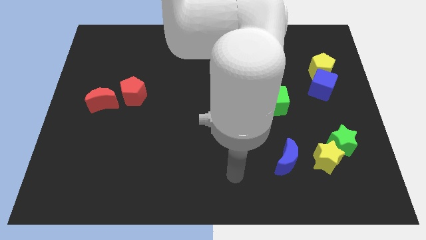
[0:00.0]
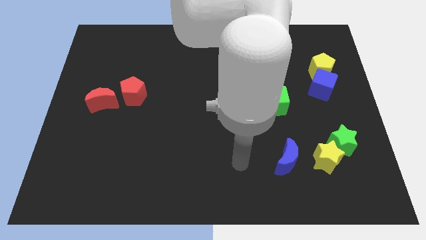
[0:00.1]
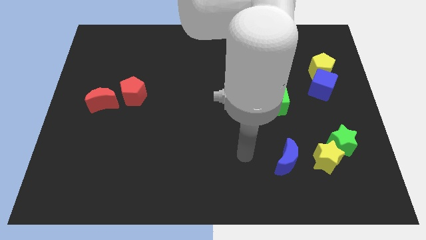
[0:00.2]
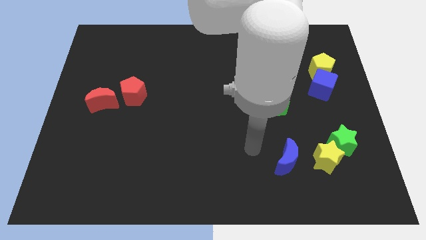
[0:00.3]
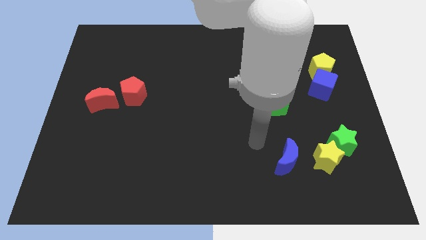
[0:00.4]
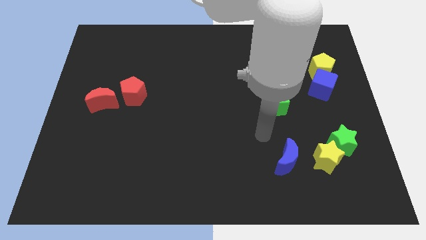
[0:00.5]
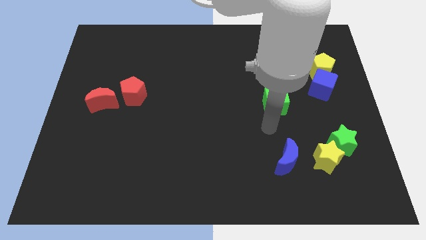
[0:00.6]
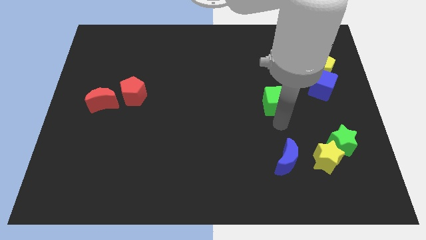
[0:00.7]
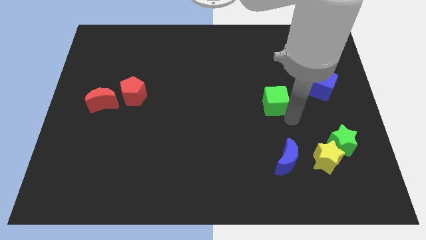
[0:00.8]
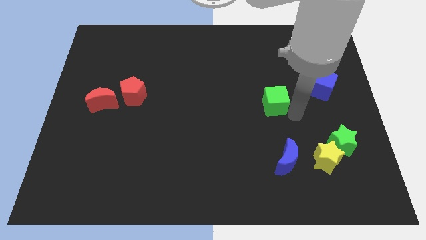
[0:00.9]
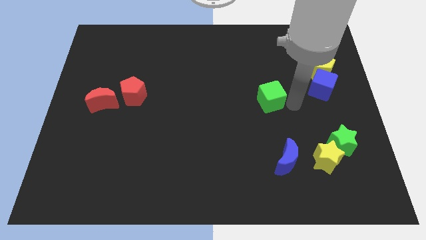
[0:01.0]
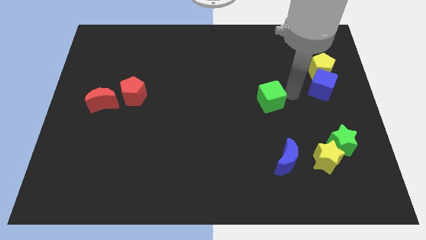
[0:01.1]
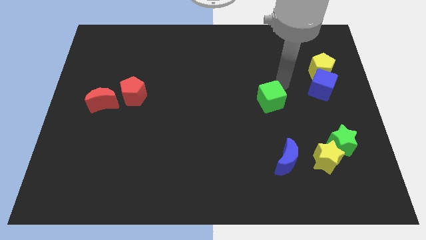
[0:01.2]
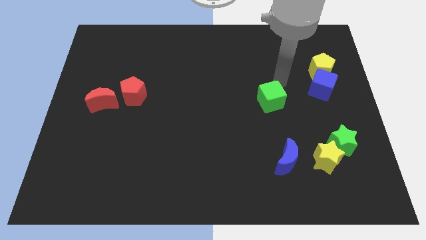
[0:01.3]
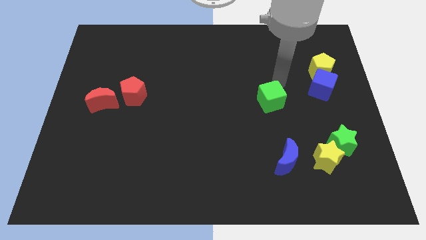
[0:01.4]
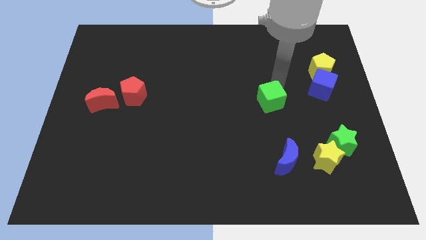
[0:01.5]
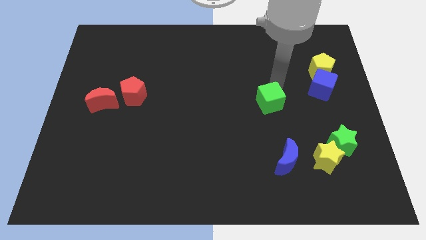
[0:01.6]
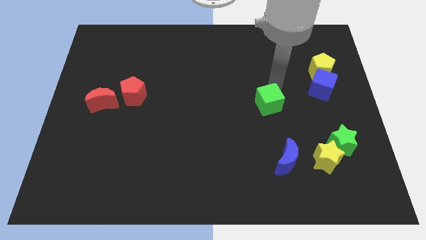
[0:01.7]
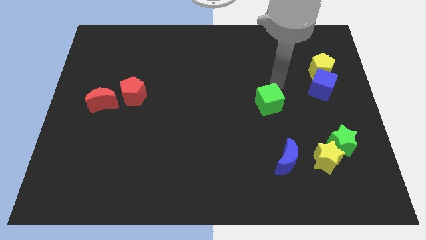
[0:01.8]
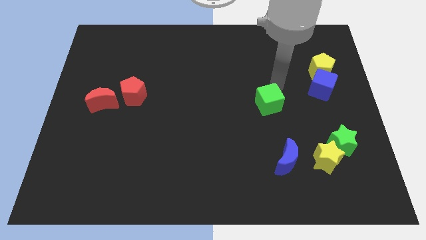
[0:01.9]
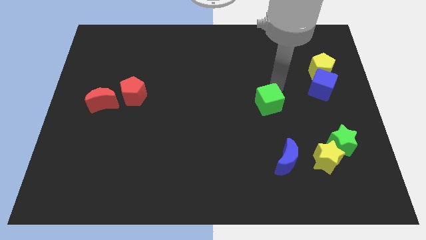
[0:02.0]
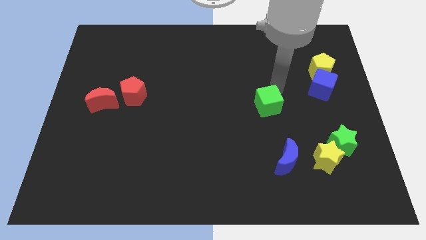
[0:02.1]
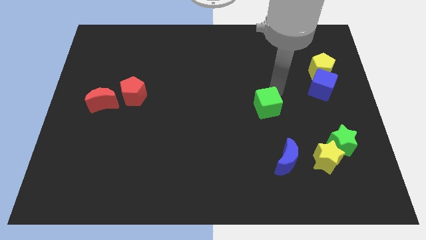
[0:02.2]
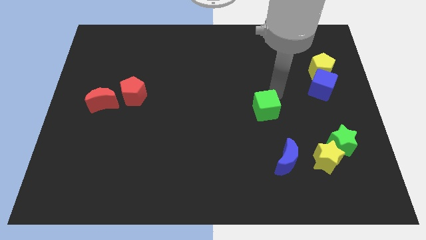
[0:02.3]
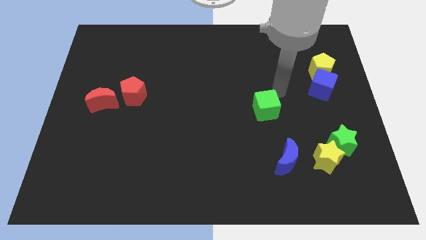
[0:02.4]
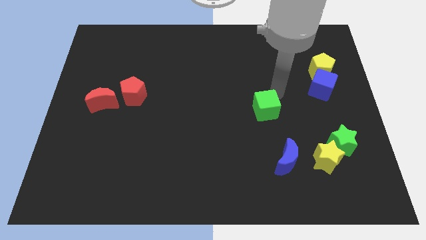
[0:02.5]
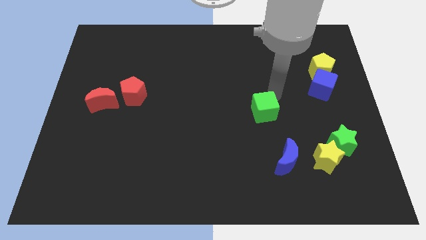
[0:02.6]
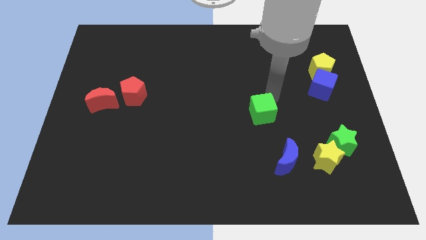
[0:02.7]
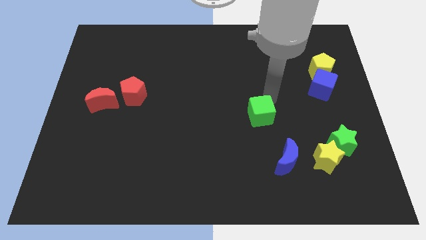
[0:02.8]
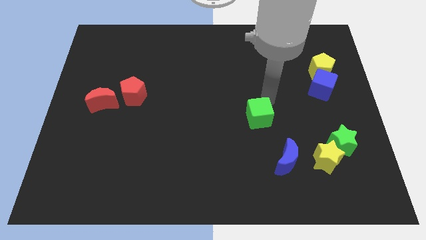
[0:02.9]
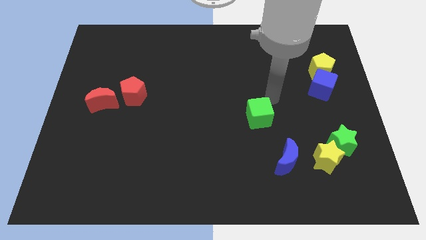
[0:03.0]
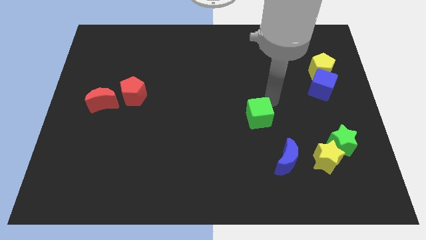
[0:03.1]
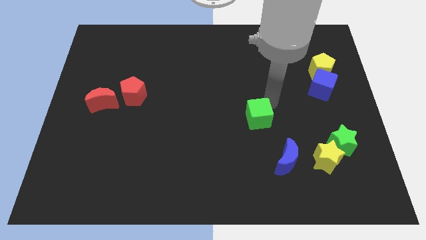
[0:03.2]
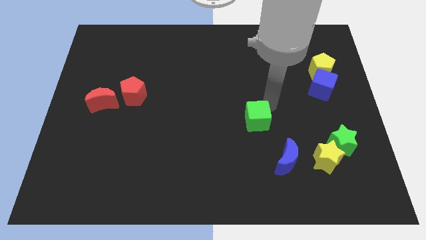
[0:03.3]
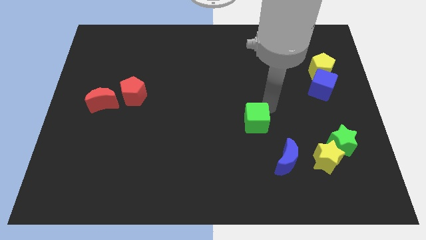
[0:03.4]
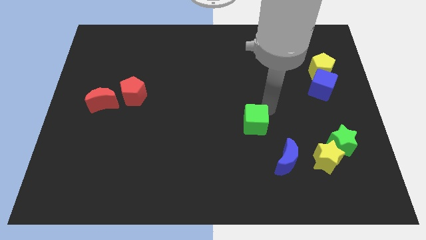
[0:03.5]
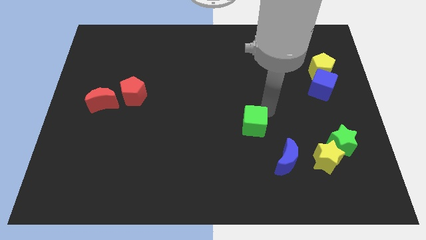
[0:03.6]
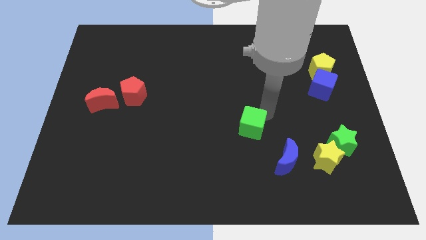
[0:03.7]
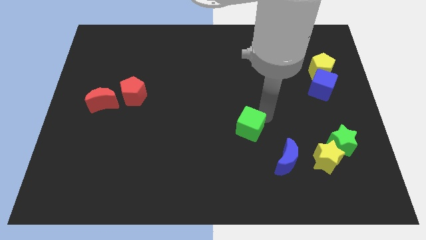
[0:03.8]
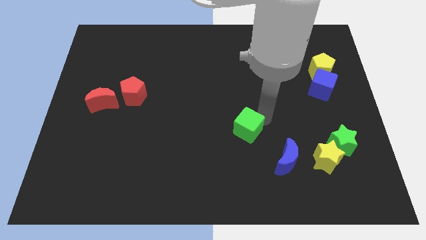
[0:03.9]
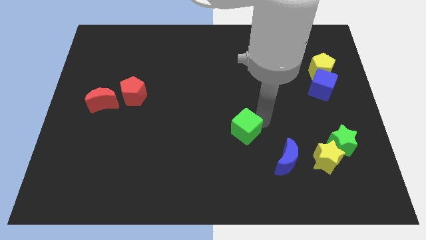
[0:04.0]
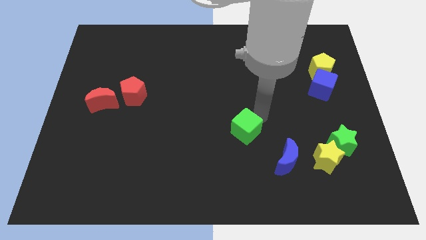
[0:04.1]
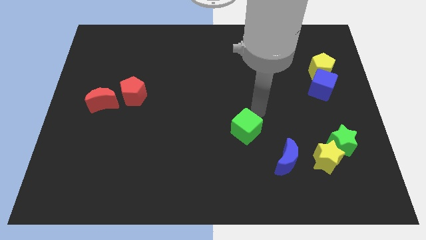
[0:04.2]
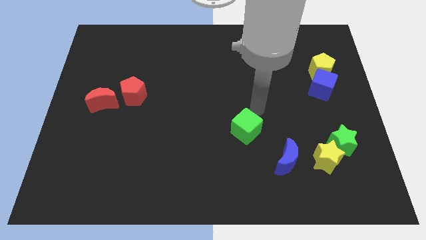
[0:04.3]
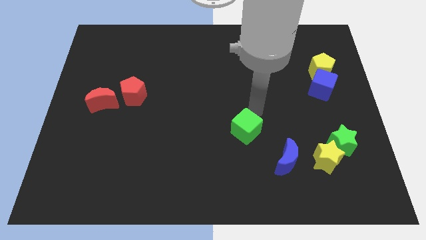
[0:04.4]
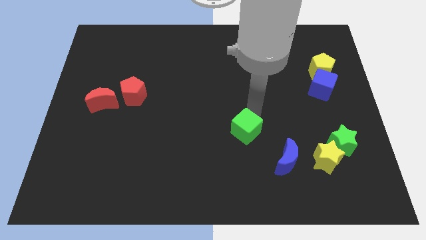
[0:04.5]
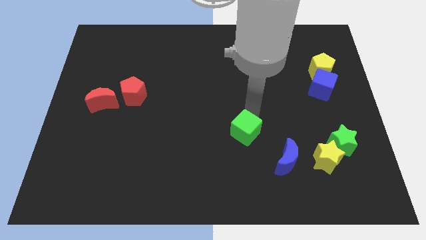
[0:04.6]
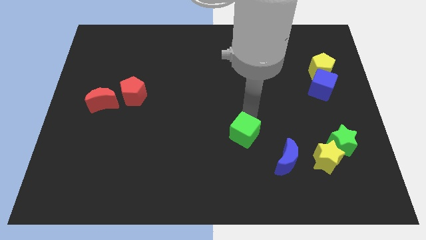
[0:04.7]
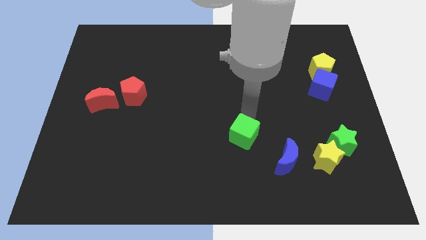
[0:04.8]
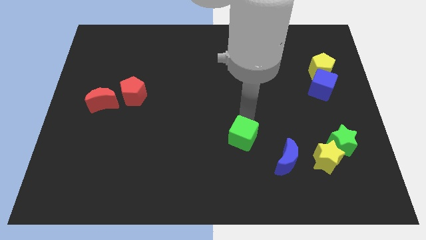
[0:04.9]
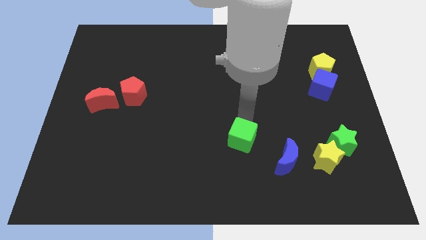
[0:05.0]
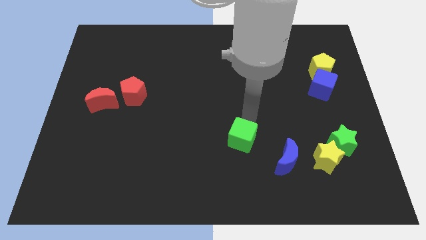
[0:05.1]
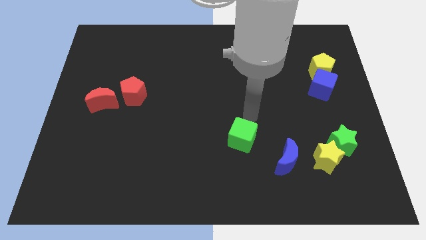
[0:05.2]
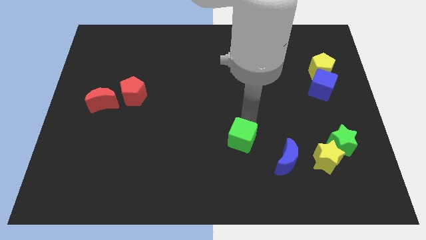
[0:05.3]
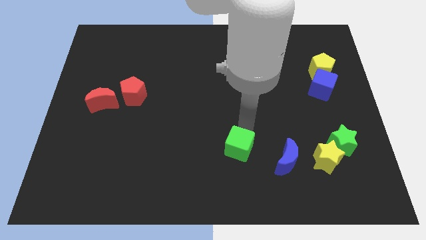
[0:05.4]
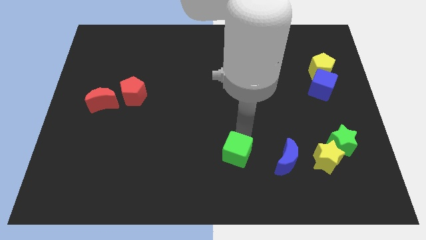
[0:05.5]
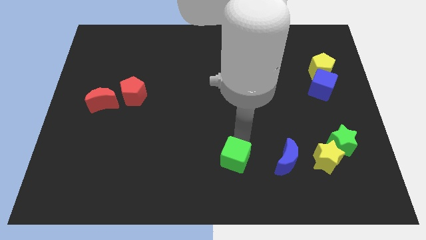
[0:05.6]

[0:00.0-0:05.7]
move the green cube to the bottom

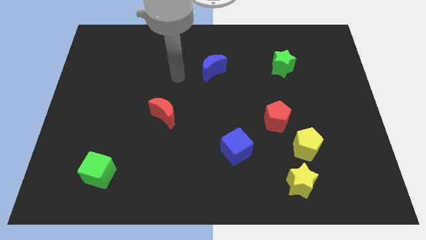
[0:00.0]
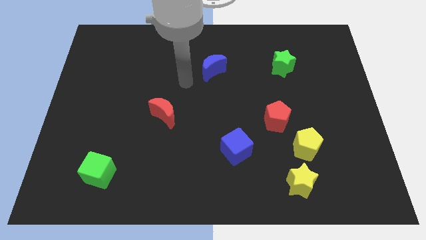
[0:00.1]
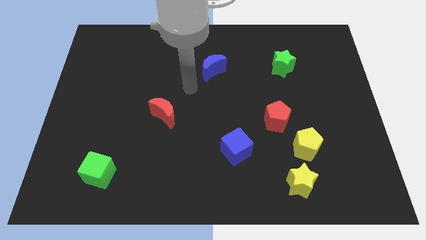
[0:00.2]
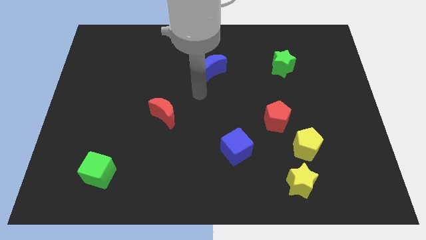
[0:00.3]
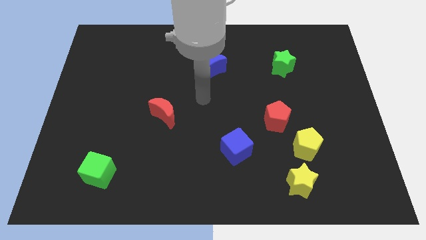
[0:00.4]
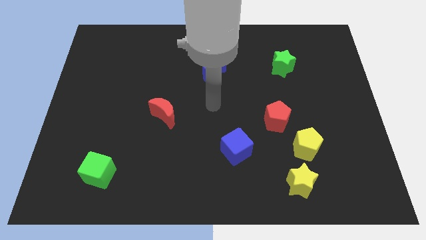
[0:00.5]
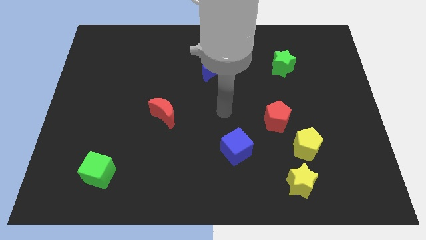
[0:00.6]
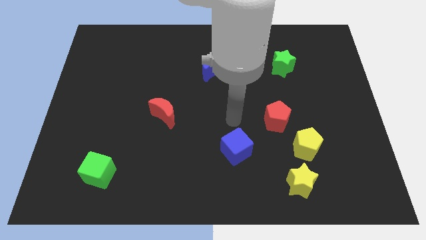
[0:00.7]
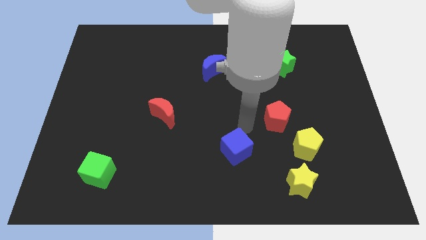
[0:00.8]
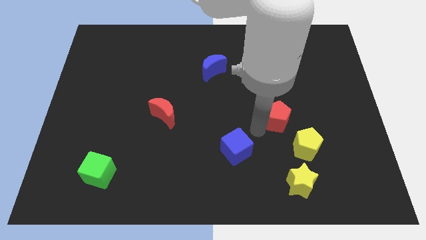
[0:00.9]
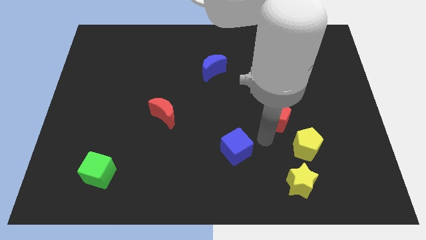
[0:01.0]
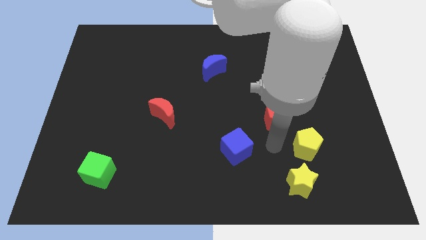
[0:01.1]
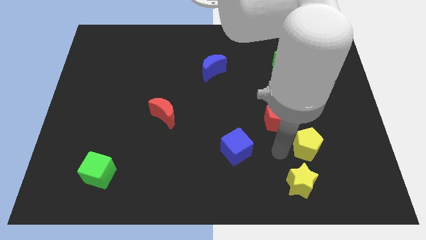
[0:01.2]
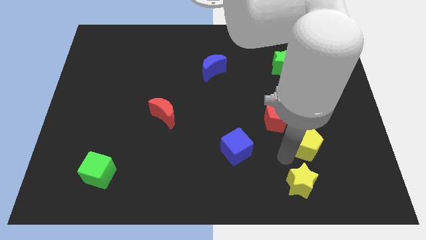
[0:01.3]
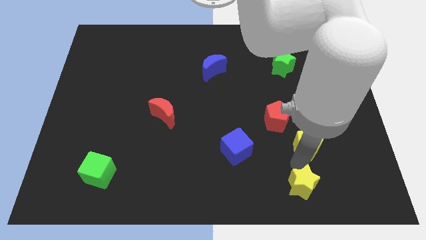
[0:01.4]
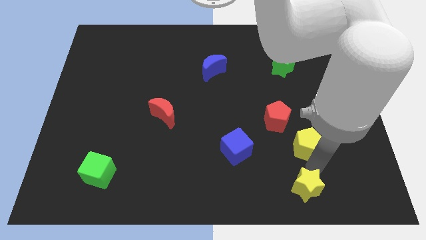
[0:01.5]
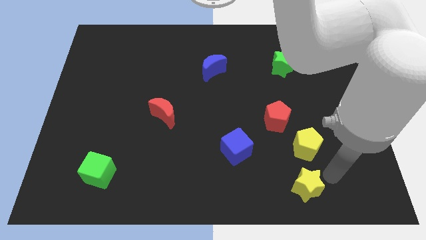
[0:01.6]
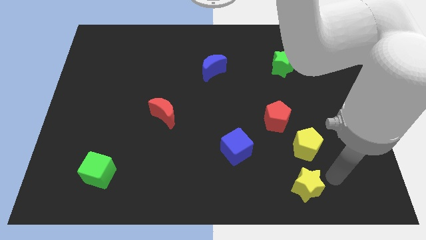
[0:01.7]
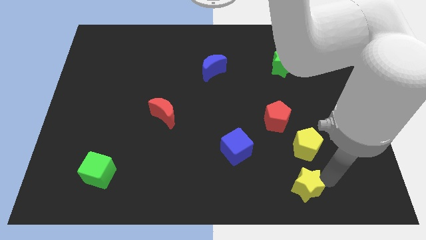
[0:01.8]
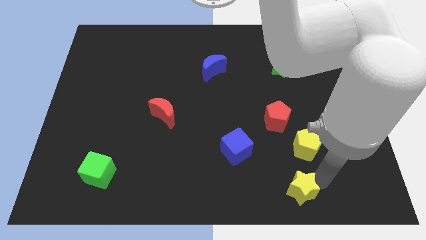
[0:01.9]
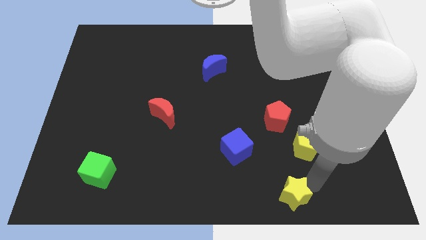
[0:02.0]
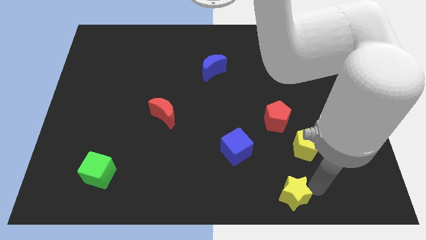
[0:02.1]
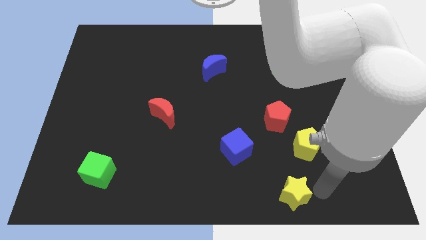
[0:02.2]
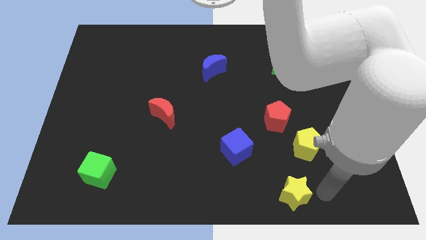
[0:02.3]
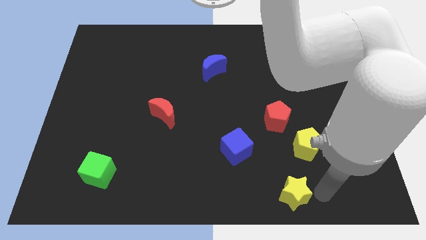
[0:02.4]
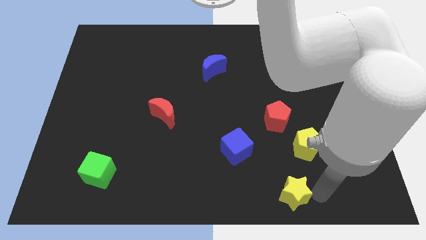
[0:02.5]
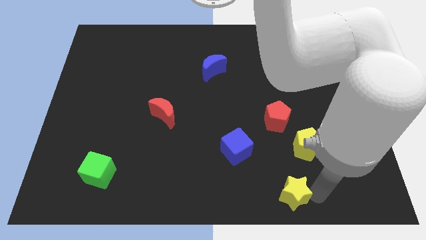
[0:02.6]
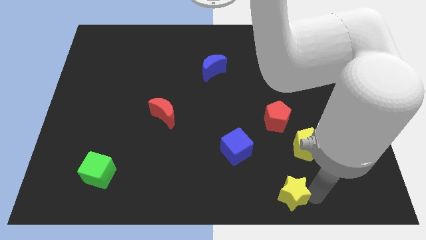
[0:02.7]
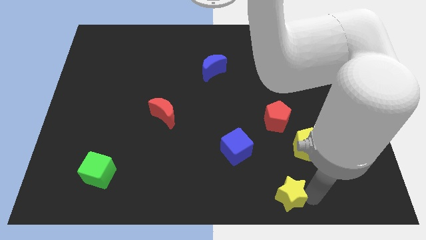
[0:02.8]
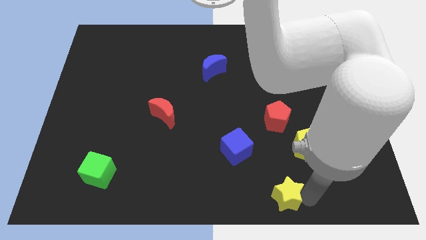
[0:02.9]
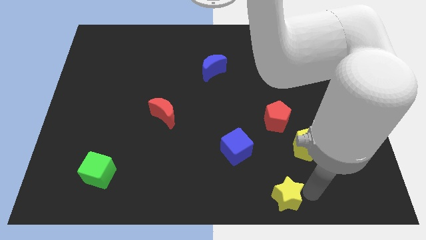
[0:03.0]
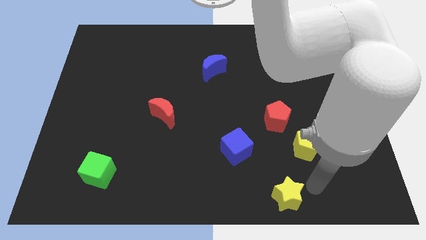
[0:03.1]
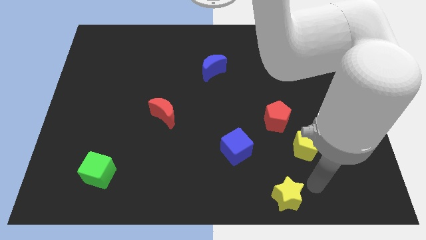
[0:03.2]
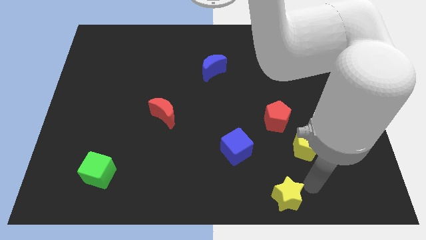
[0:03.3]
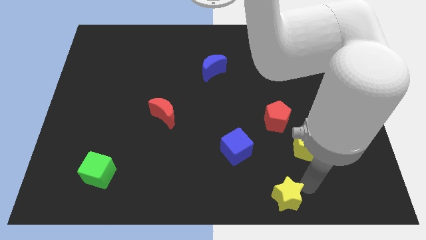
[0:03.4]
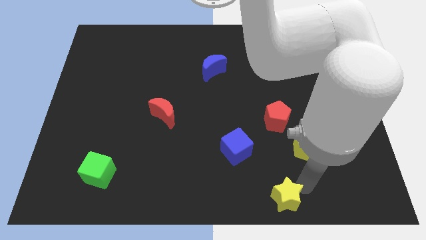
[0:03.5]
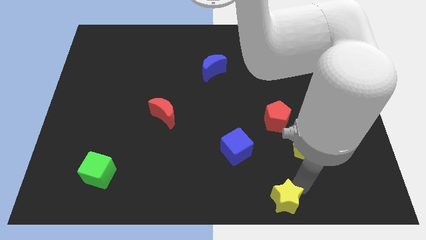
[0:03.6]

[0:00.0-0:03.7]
push the yellow star to the bottom side
